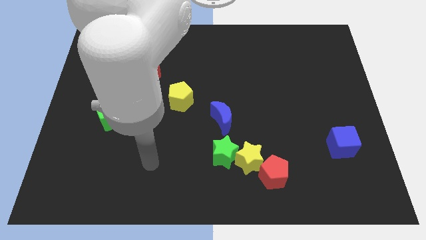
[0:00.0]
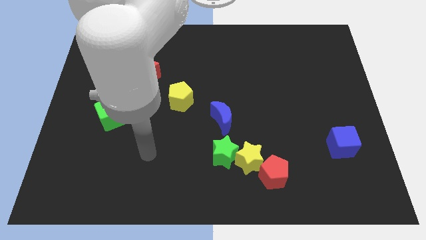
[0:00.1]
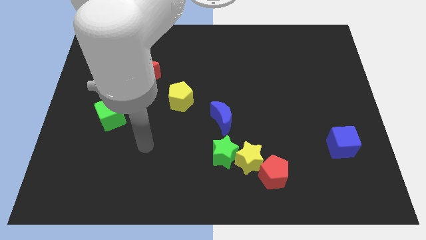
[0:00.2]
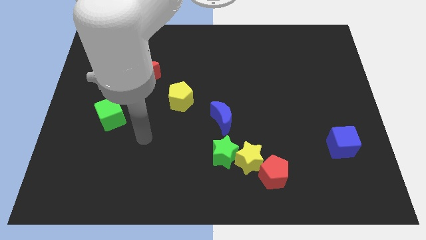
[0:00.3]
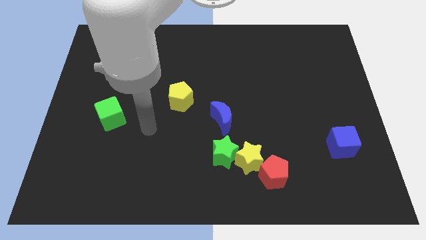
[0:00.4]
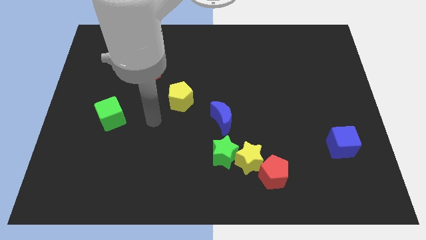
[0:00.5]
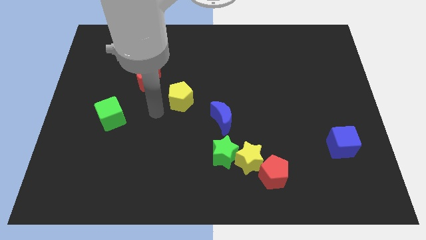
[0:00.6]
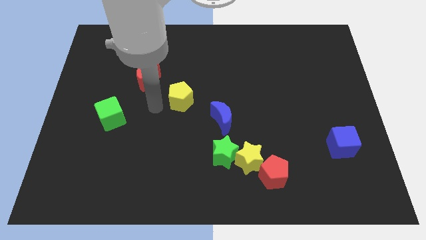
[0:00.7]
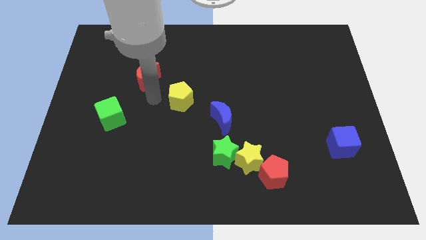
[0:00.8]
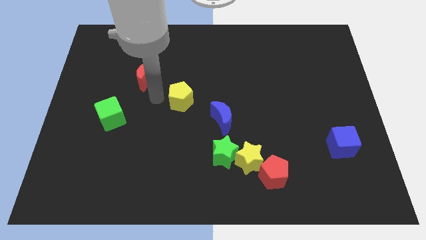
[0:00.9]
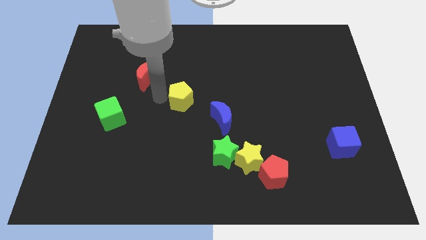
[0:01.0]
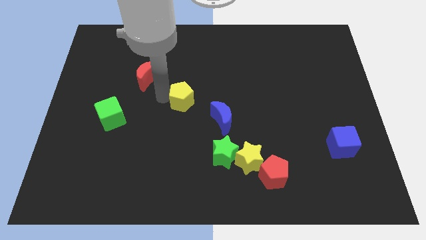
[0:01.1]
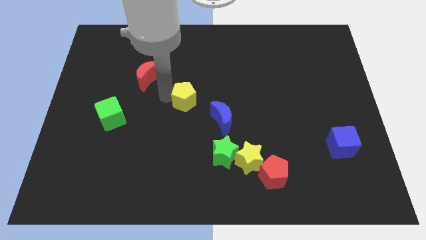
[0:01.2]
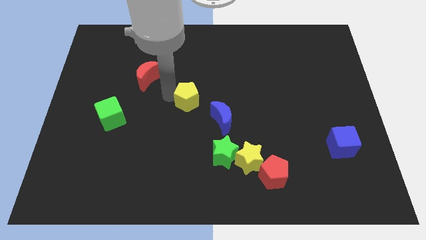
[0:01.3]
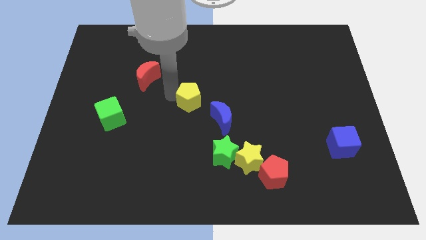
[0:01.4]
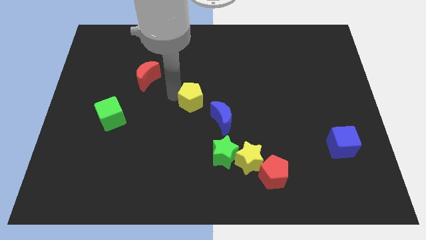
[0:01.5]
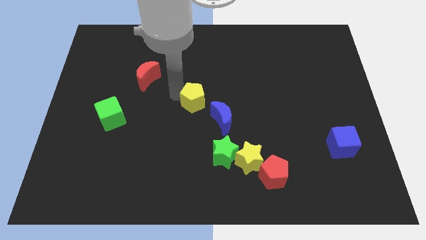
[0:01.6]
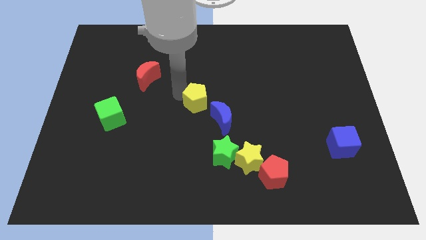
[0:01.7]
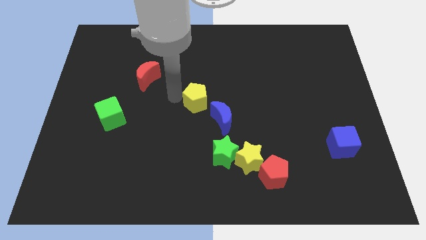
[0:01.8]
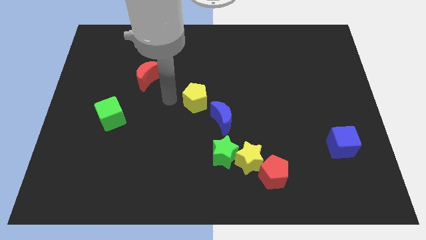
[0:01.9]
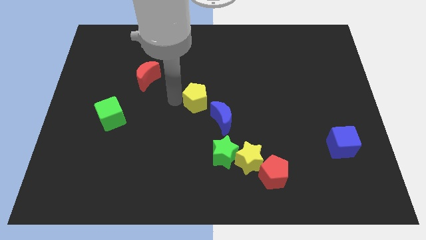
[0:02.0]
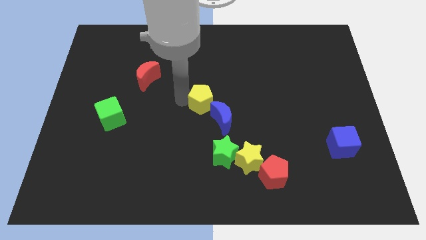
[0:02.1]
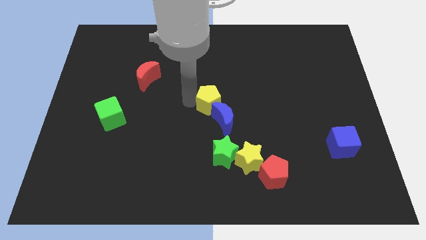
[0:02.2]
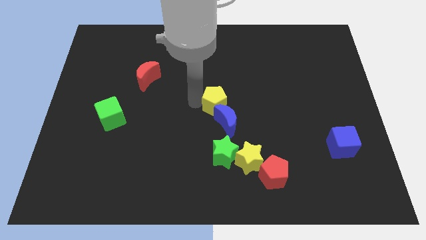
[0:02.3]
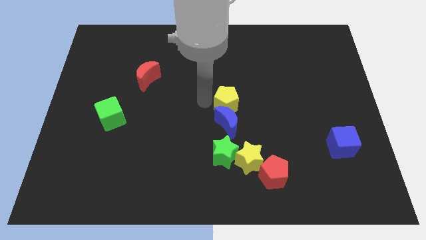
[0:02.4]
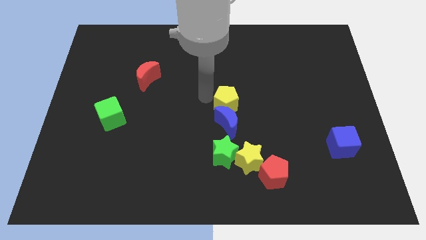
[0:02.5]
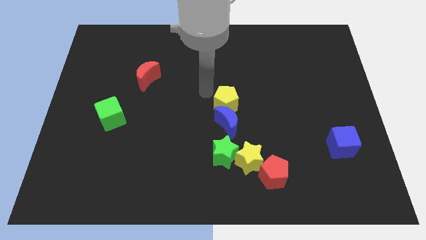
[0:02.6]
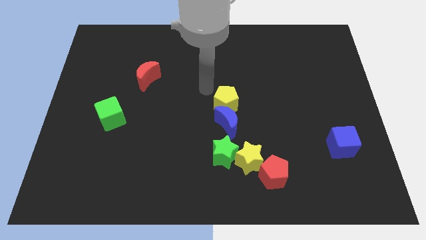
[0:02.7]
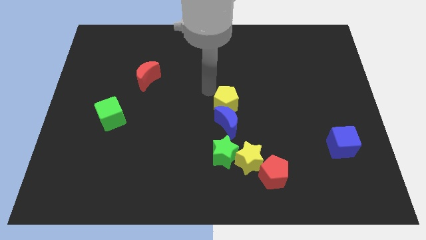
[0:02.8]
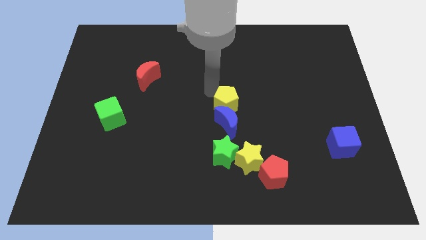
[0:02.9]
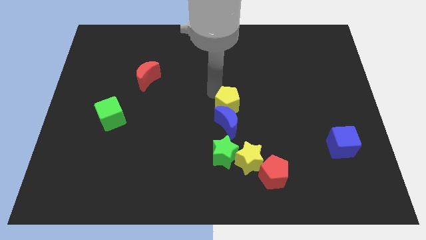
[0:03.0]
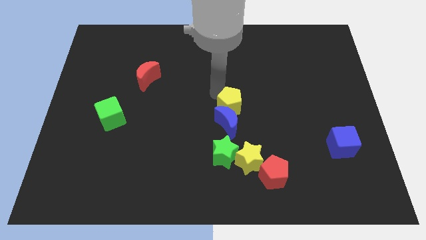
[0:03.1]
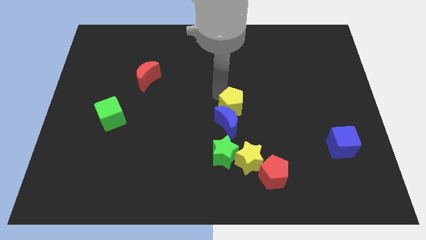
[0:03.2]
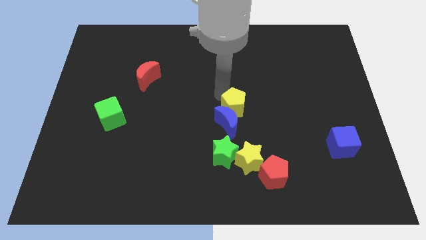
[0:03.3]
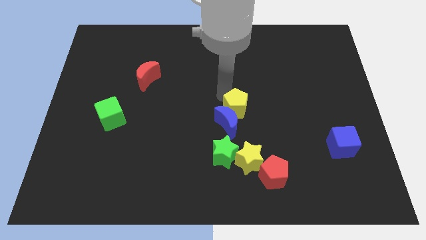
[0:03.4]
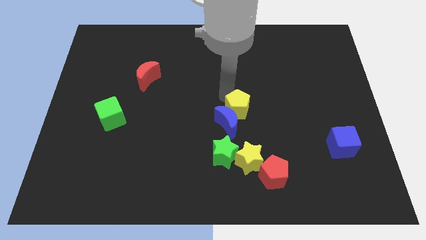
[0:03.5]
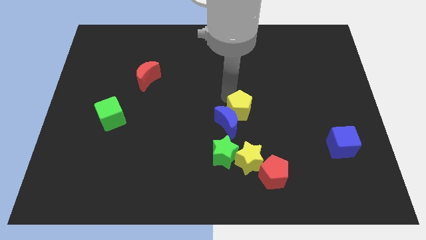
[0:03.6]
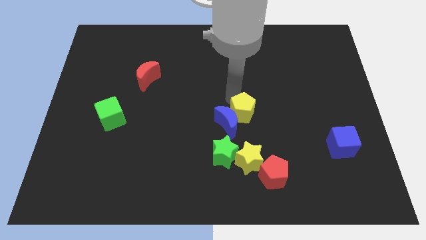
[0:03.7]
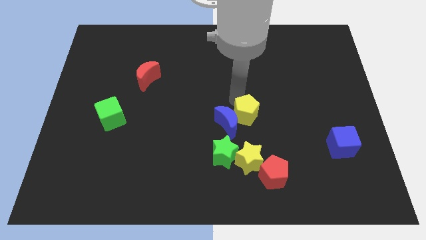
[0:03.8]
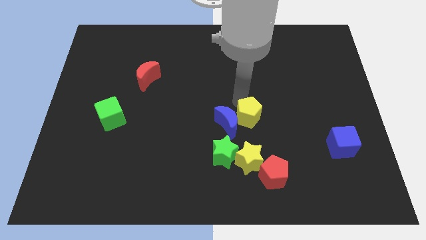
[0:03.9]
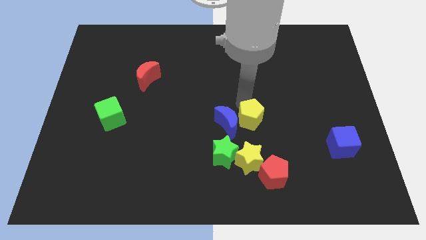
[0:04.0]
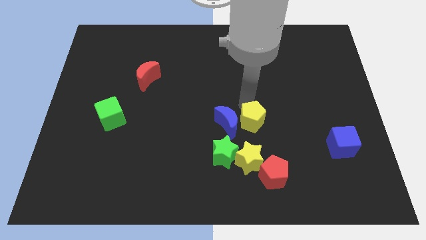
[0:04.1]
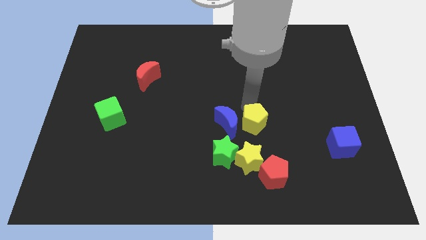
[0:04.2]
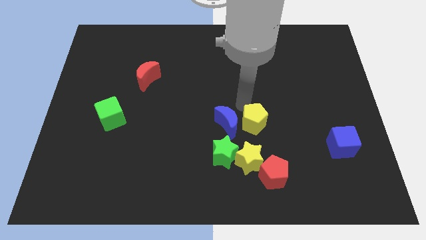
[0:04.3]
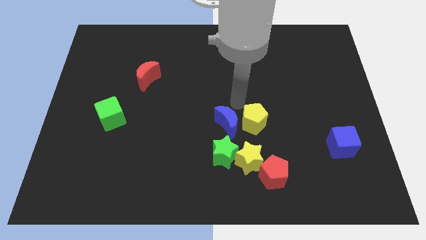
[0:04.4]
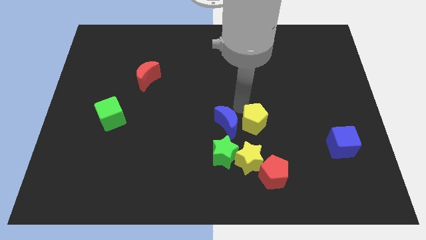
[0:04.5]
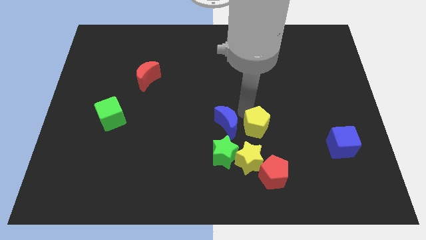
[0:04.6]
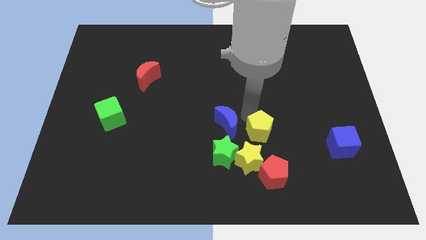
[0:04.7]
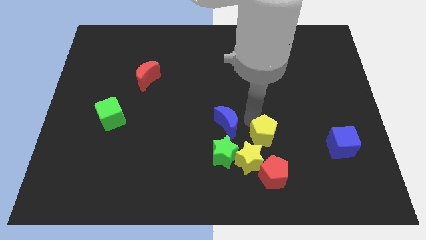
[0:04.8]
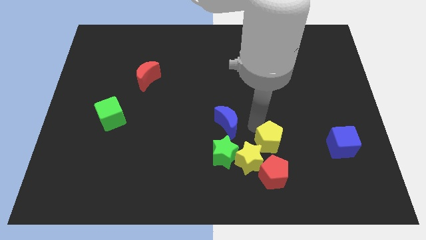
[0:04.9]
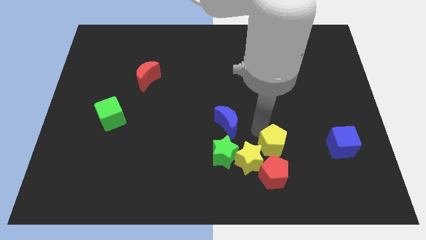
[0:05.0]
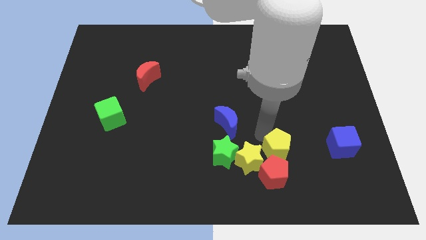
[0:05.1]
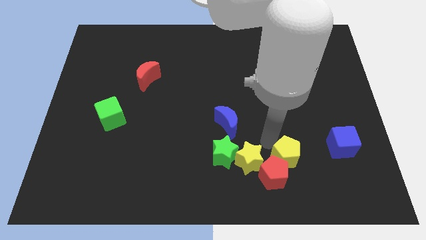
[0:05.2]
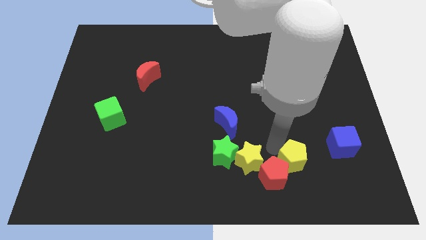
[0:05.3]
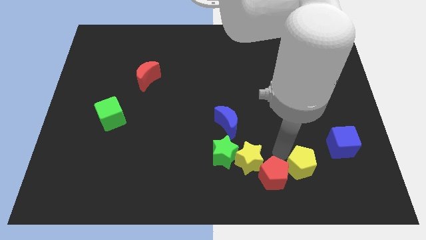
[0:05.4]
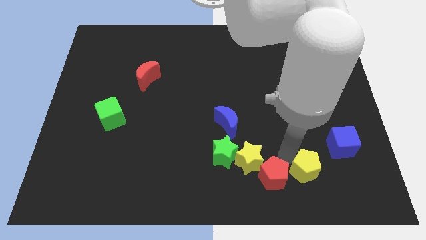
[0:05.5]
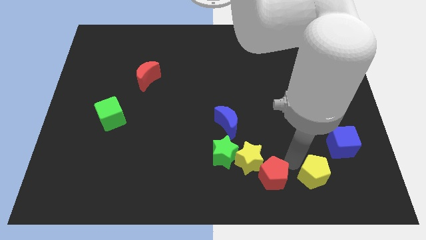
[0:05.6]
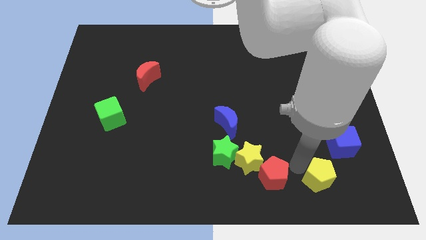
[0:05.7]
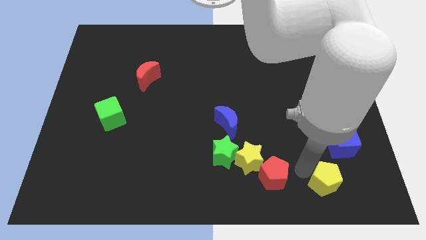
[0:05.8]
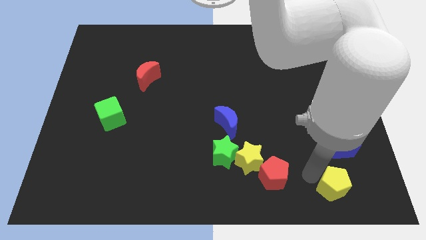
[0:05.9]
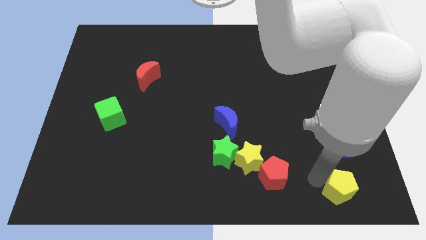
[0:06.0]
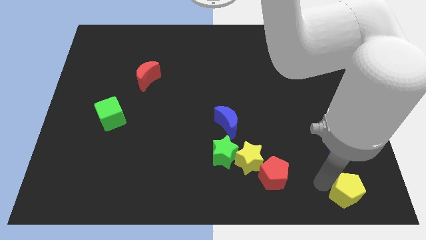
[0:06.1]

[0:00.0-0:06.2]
slide the yellow pentagon to the bottom right
